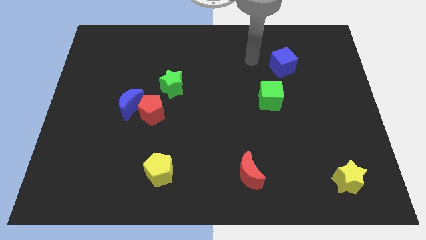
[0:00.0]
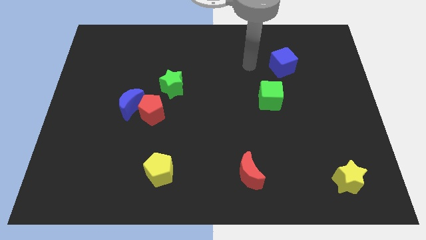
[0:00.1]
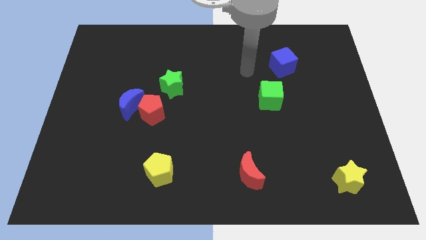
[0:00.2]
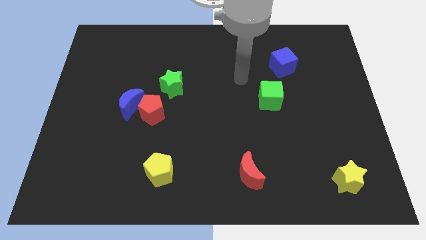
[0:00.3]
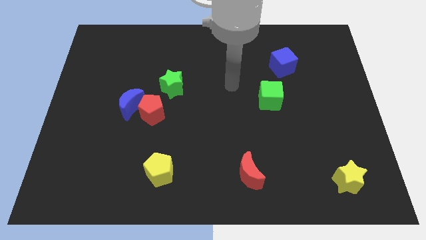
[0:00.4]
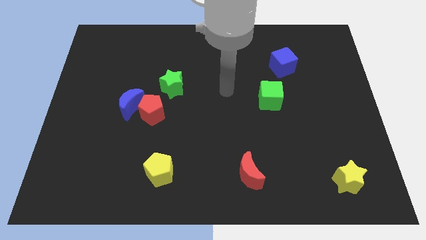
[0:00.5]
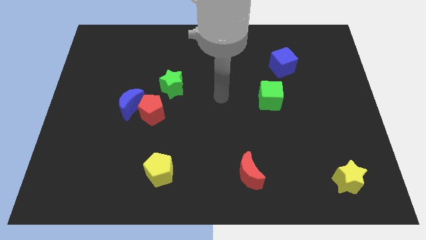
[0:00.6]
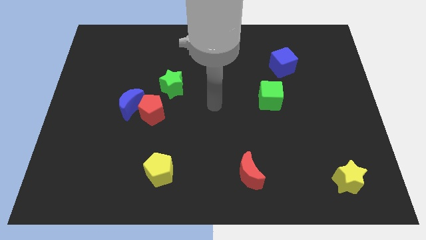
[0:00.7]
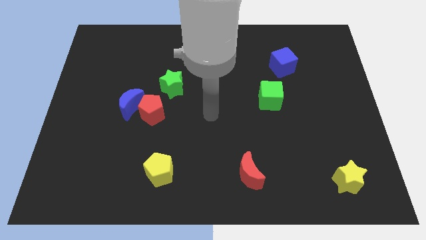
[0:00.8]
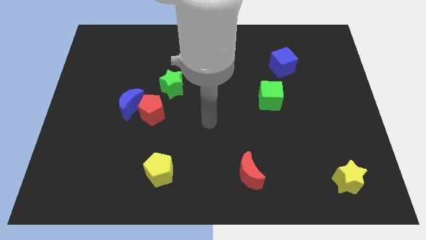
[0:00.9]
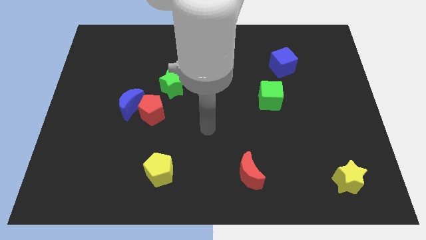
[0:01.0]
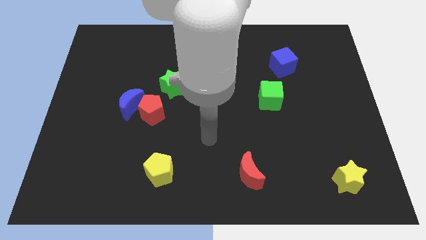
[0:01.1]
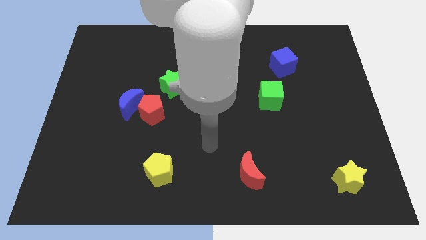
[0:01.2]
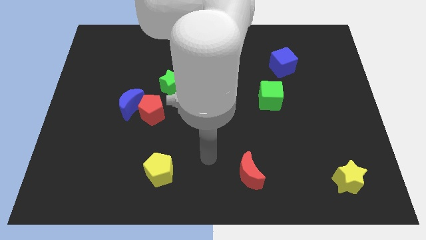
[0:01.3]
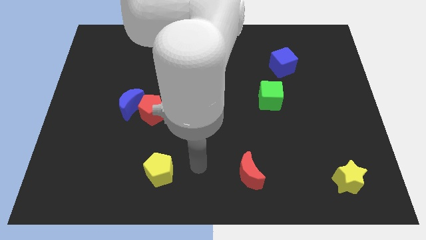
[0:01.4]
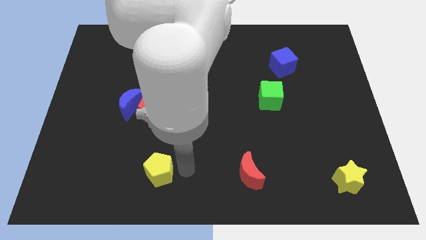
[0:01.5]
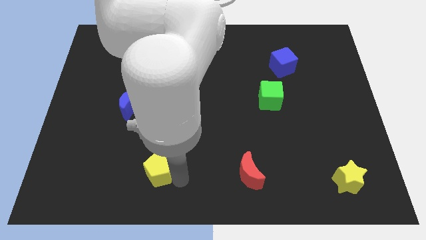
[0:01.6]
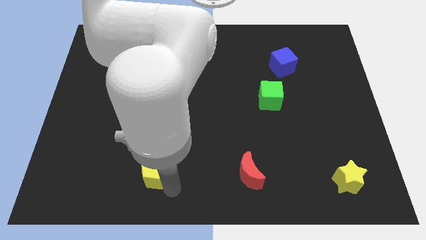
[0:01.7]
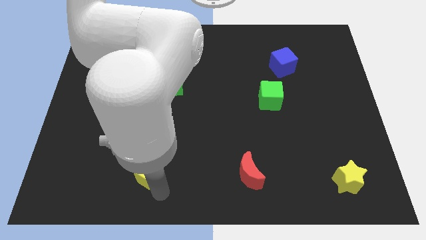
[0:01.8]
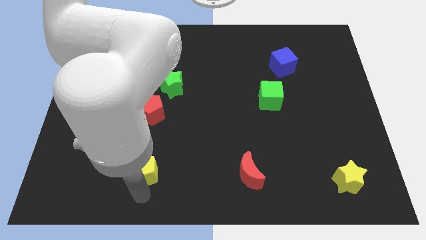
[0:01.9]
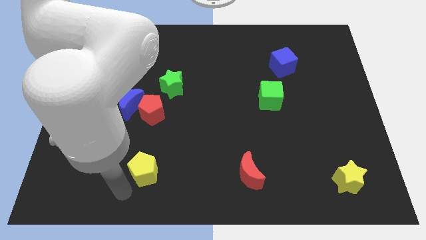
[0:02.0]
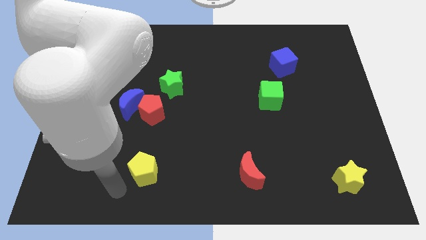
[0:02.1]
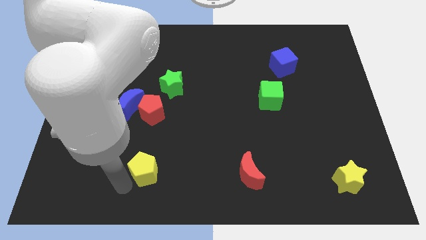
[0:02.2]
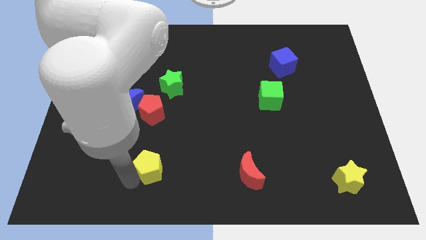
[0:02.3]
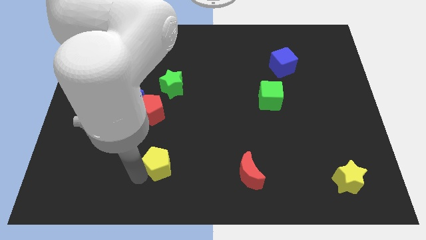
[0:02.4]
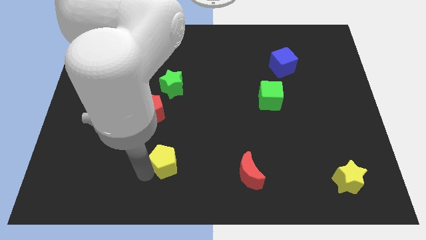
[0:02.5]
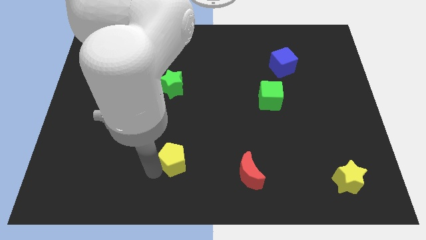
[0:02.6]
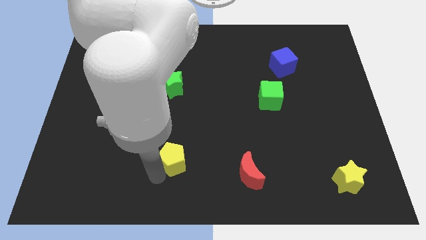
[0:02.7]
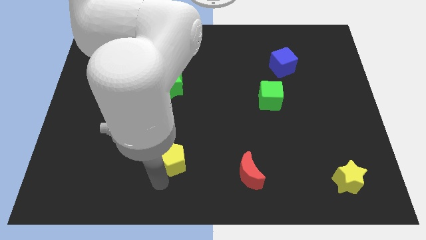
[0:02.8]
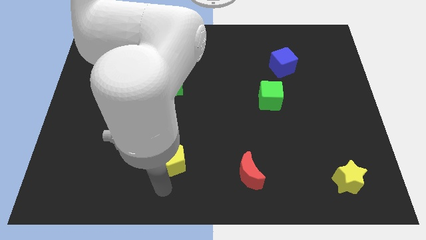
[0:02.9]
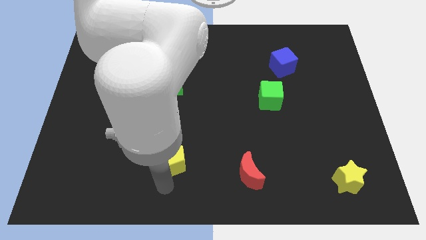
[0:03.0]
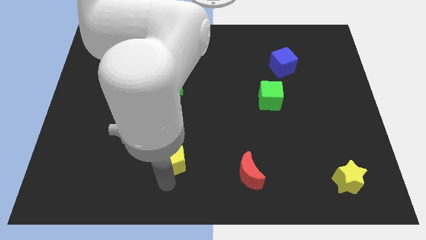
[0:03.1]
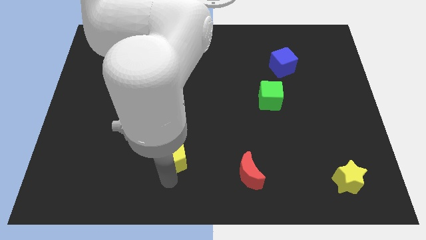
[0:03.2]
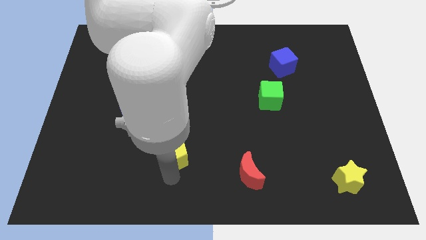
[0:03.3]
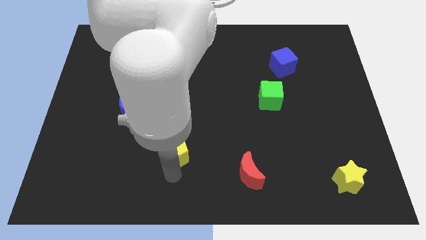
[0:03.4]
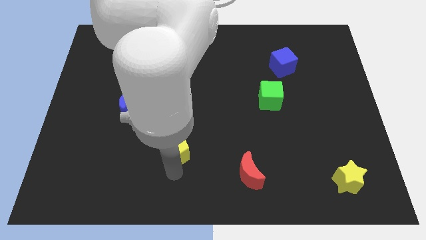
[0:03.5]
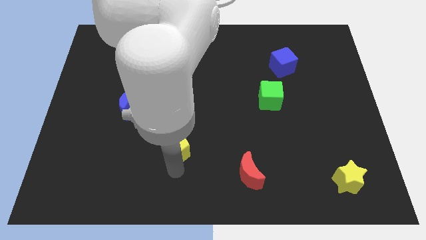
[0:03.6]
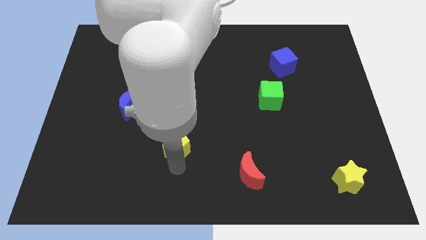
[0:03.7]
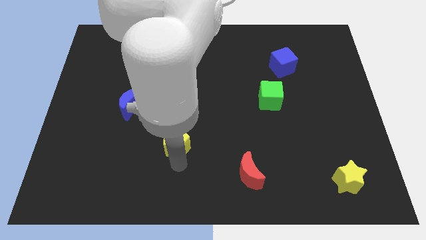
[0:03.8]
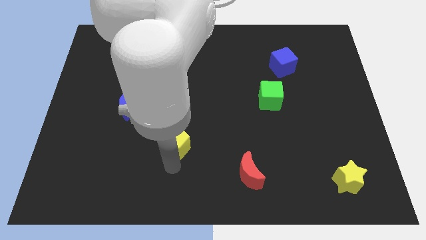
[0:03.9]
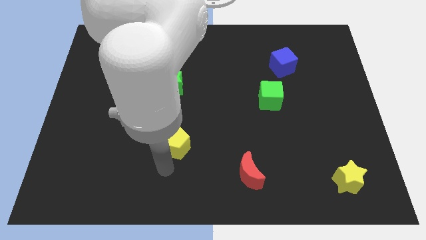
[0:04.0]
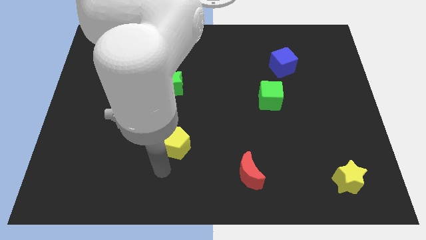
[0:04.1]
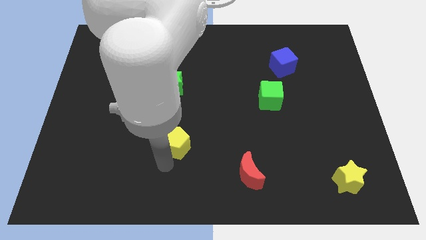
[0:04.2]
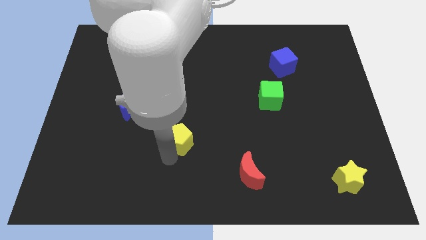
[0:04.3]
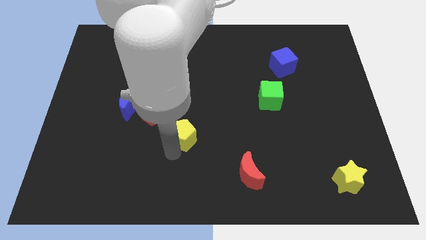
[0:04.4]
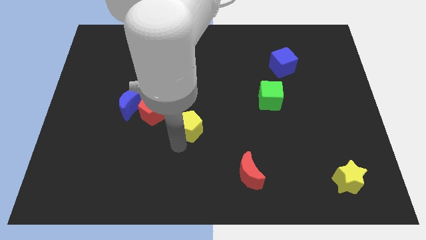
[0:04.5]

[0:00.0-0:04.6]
slide the yellow pentagon right of the red pentagon

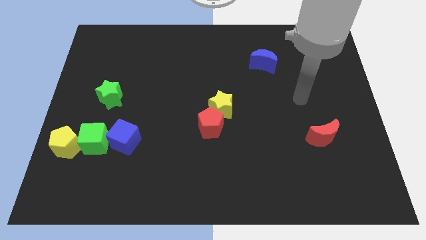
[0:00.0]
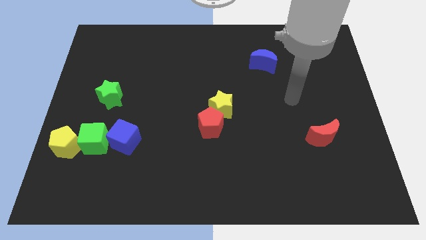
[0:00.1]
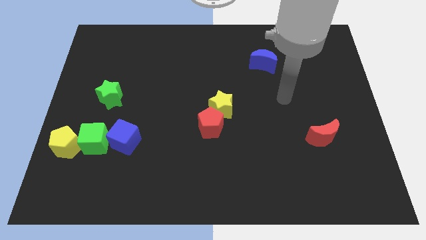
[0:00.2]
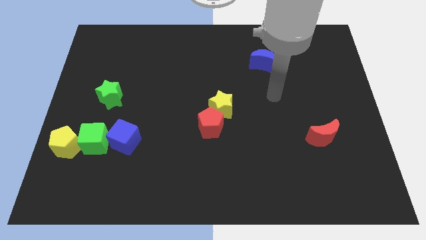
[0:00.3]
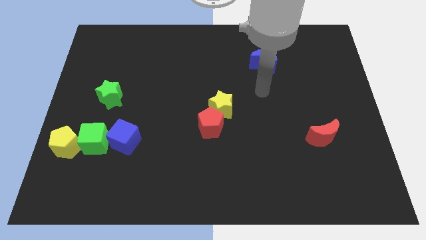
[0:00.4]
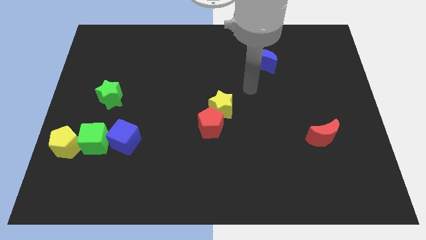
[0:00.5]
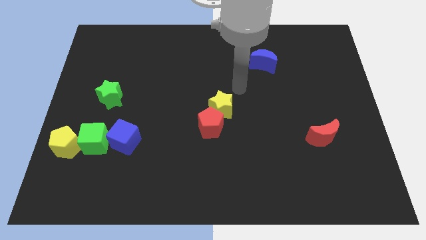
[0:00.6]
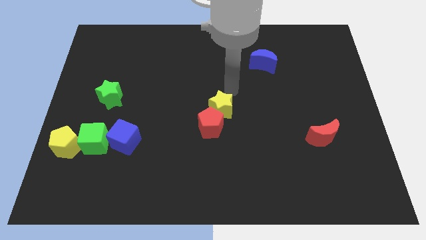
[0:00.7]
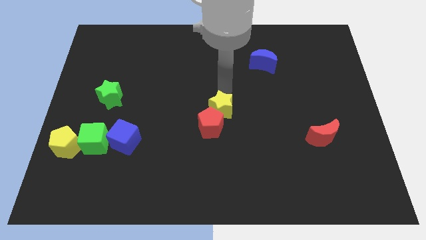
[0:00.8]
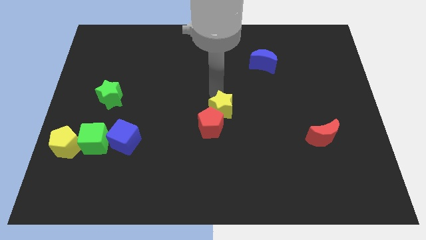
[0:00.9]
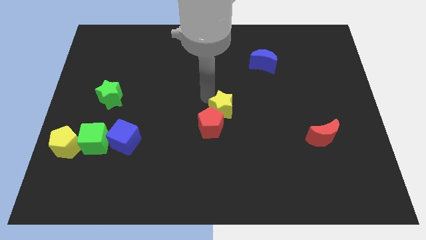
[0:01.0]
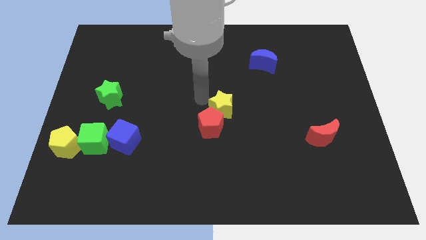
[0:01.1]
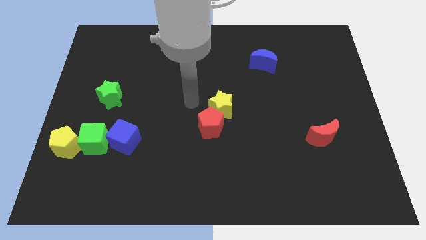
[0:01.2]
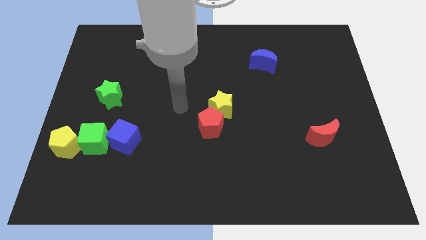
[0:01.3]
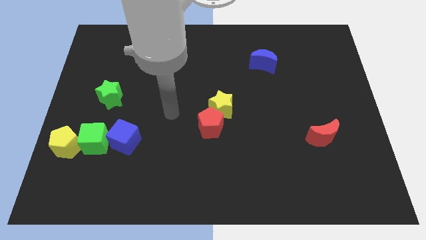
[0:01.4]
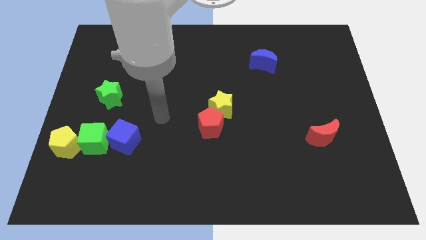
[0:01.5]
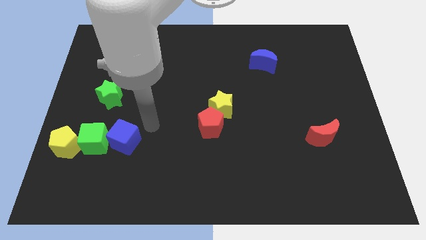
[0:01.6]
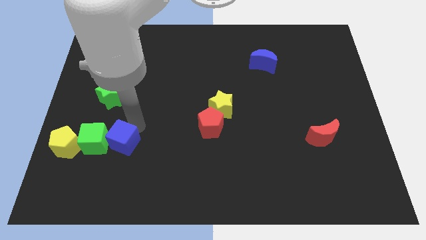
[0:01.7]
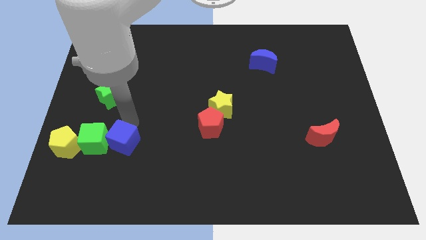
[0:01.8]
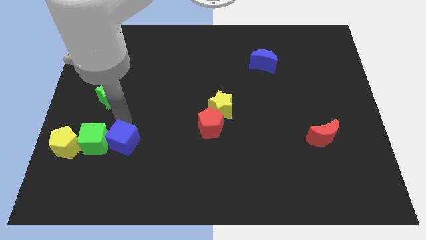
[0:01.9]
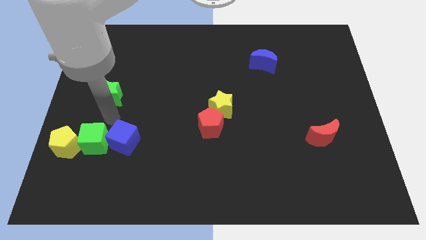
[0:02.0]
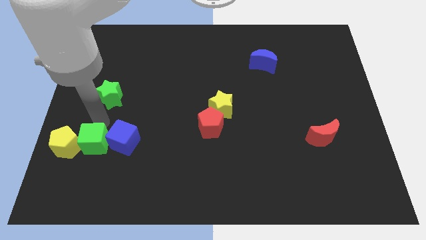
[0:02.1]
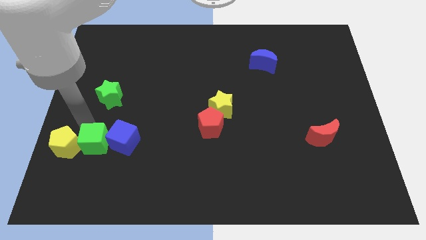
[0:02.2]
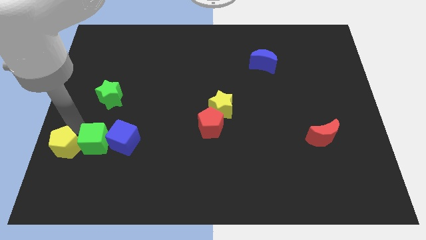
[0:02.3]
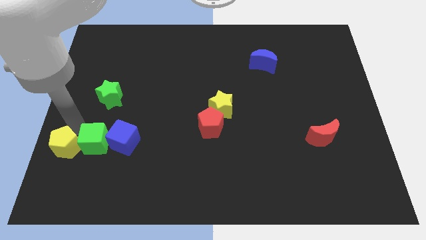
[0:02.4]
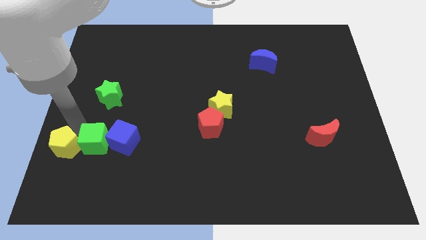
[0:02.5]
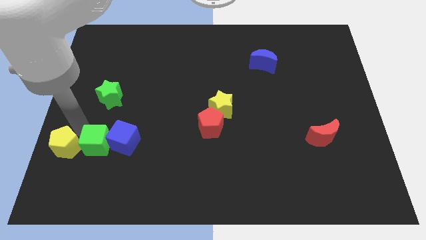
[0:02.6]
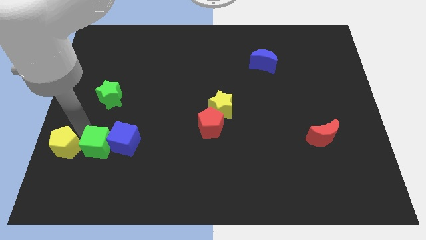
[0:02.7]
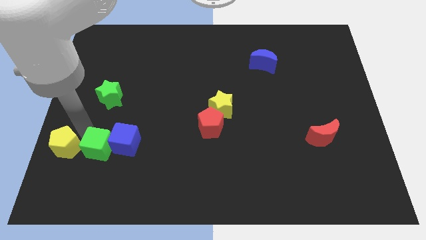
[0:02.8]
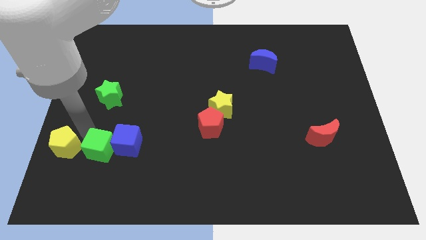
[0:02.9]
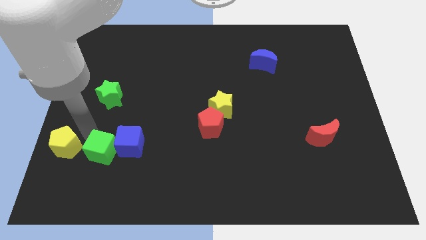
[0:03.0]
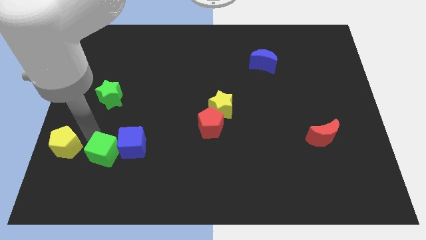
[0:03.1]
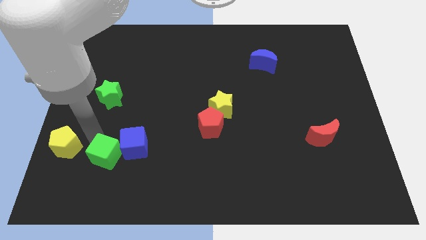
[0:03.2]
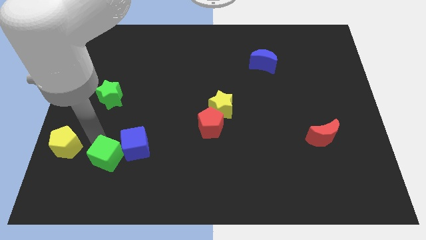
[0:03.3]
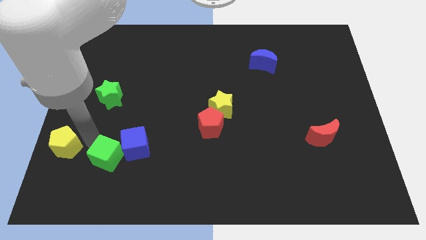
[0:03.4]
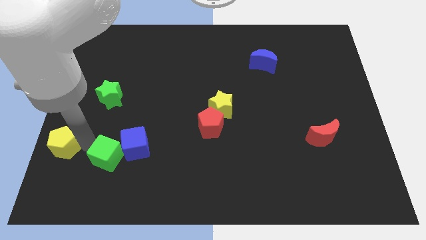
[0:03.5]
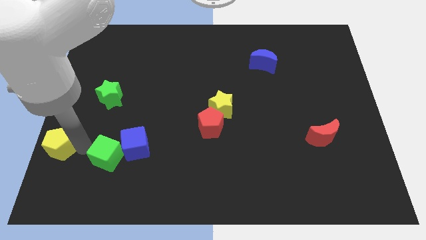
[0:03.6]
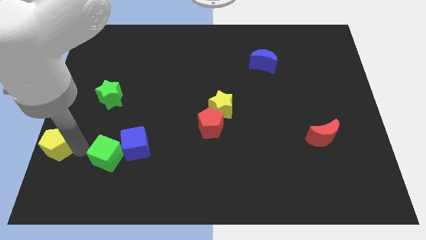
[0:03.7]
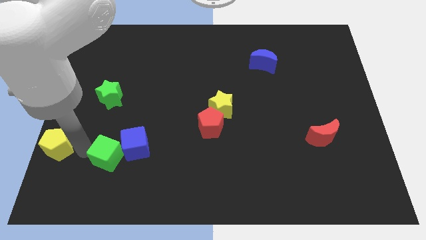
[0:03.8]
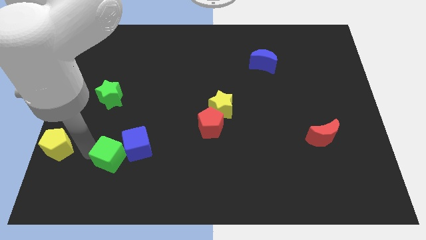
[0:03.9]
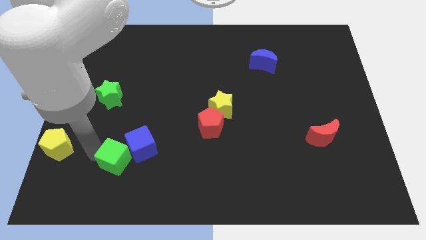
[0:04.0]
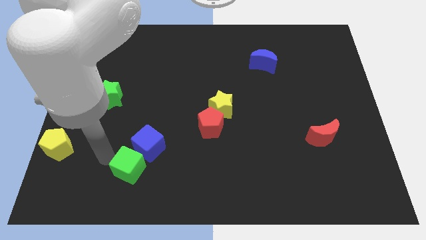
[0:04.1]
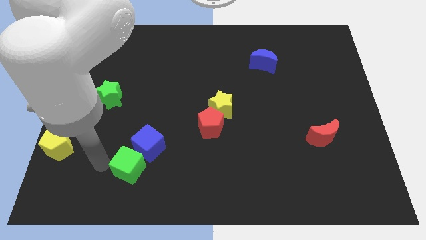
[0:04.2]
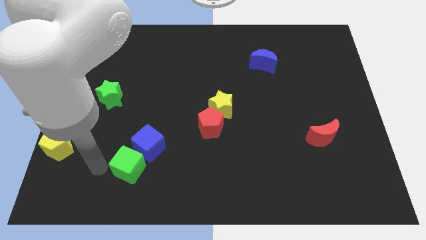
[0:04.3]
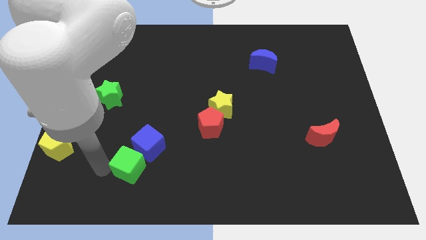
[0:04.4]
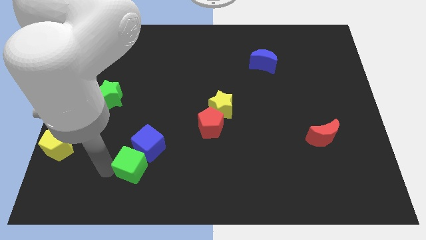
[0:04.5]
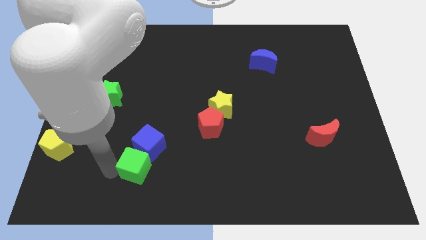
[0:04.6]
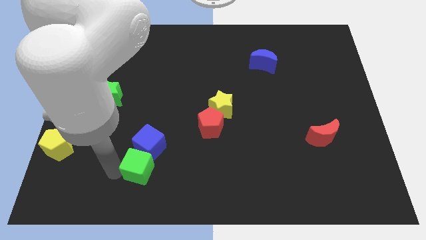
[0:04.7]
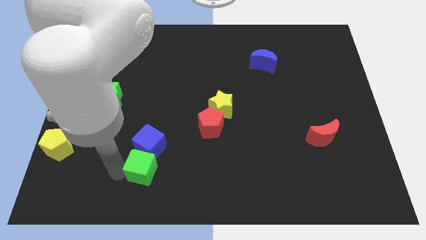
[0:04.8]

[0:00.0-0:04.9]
move the green cube to the bottom right side of the blue cube
